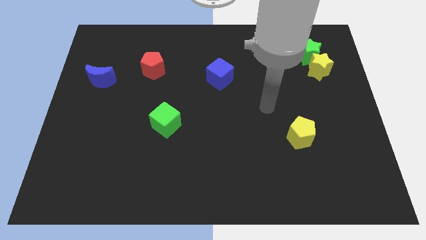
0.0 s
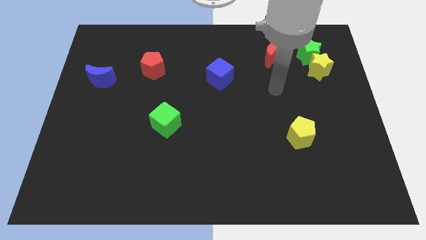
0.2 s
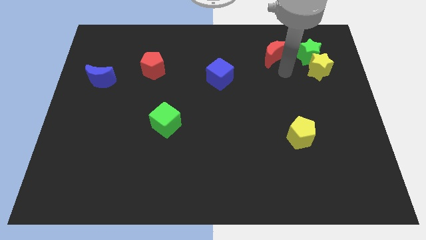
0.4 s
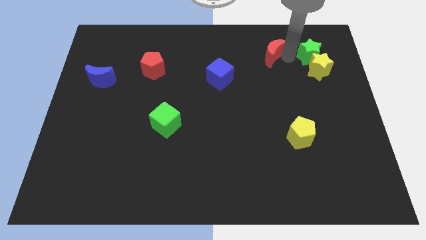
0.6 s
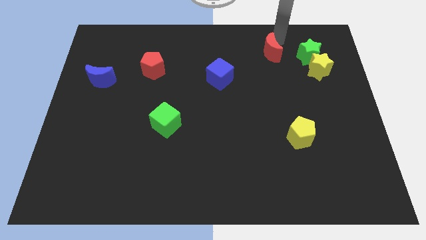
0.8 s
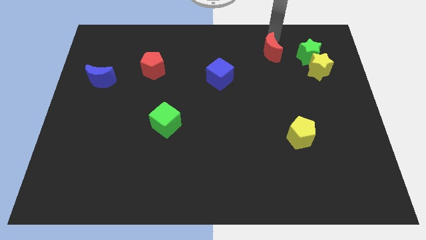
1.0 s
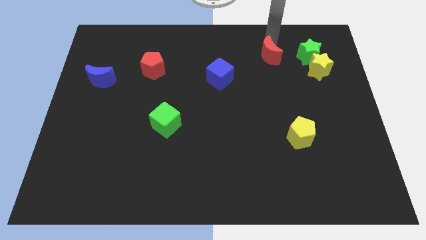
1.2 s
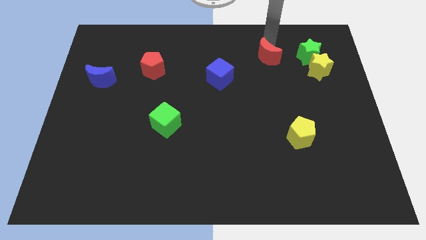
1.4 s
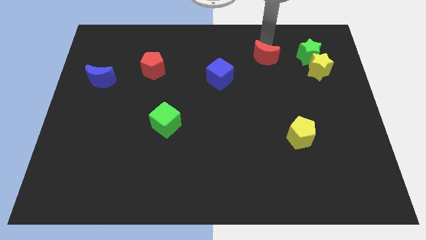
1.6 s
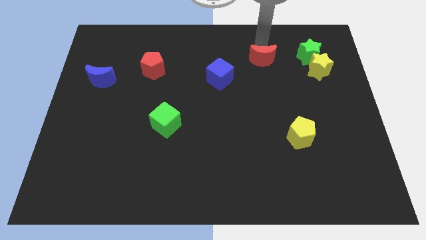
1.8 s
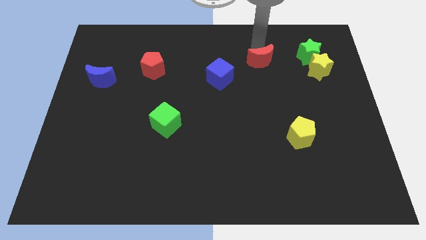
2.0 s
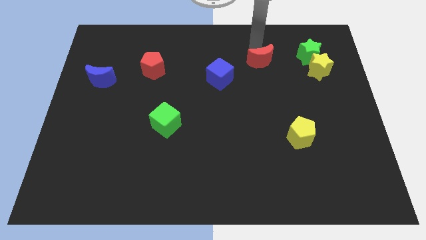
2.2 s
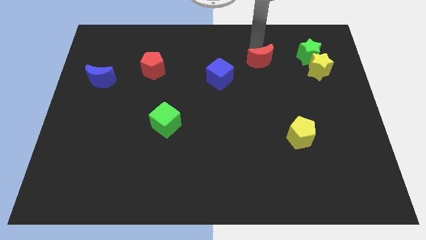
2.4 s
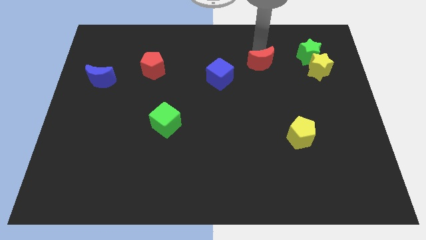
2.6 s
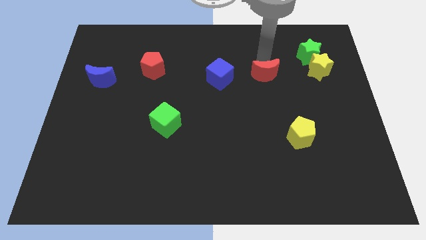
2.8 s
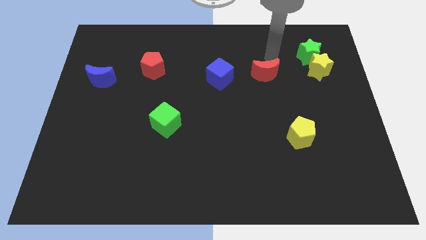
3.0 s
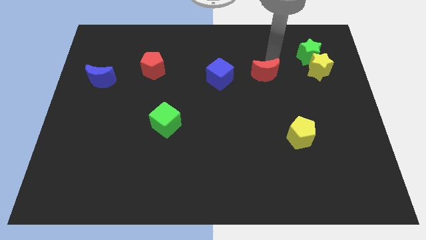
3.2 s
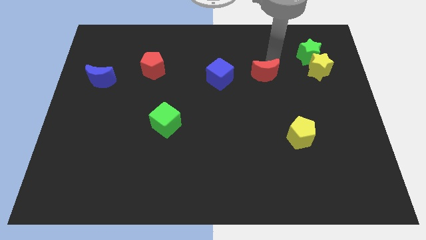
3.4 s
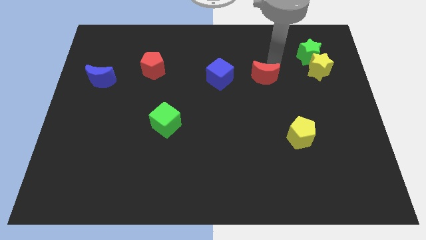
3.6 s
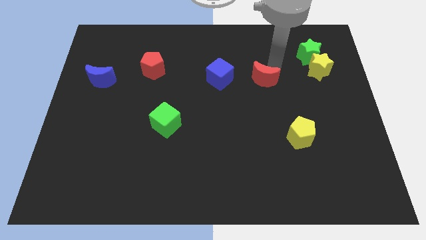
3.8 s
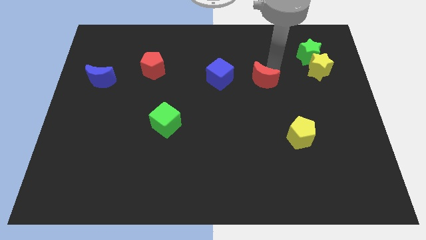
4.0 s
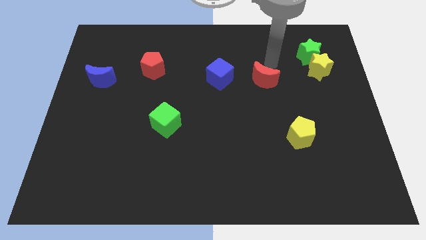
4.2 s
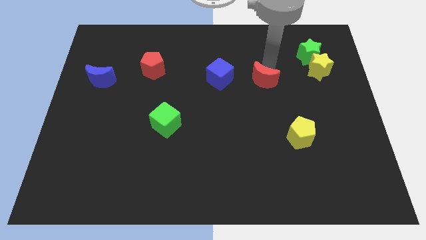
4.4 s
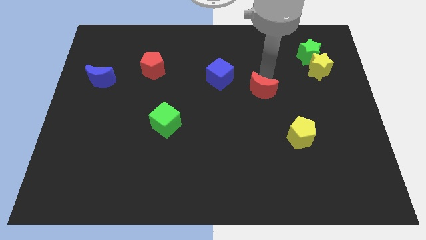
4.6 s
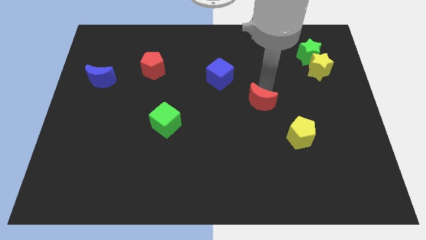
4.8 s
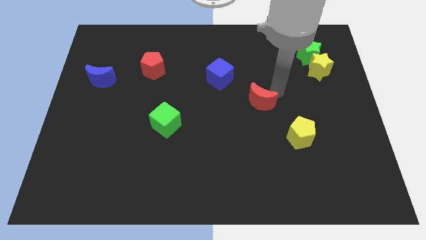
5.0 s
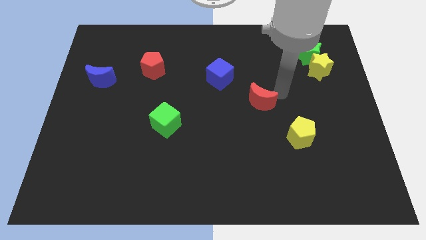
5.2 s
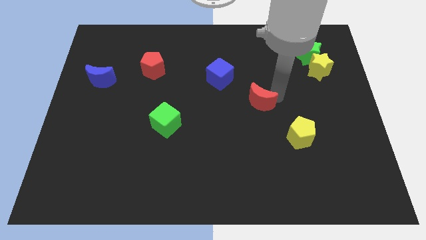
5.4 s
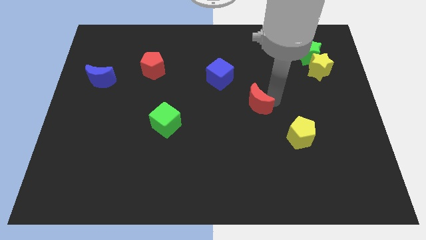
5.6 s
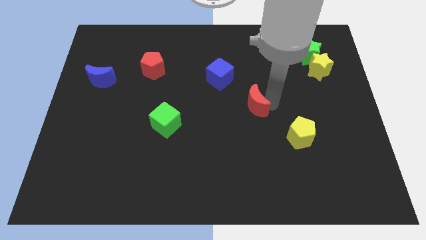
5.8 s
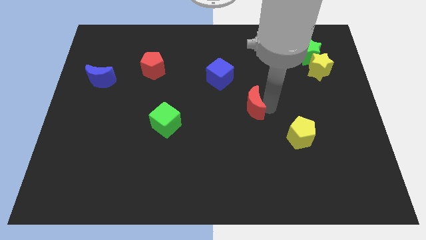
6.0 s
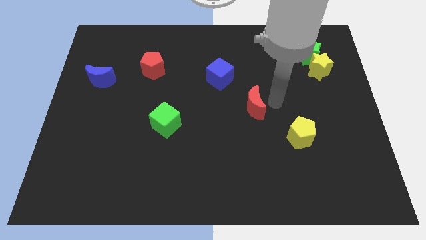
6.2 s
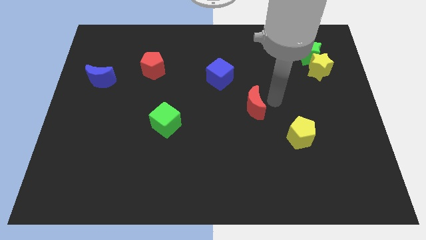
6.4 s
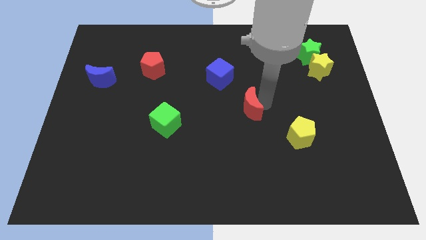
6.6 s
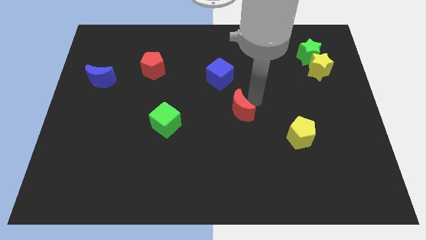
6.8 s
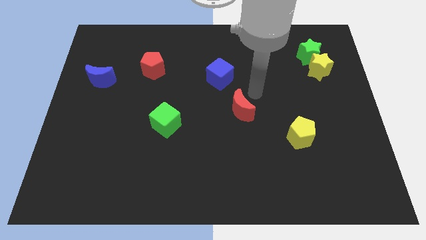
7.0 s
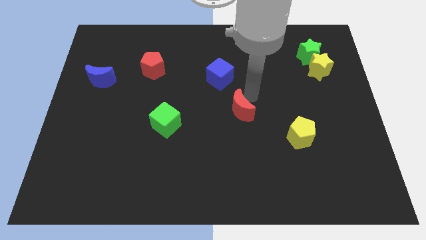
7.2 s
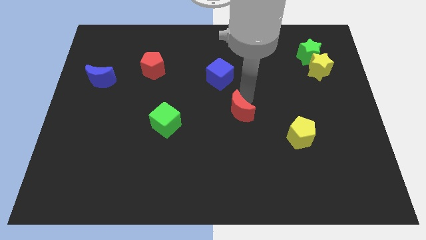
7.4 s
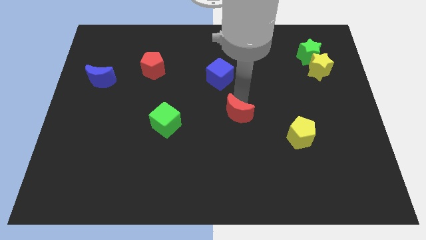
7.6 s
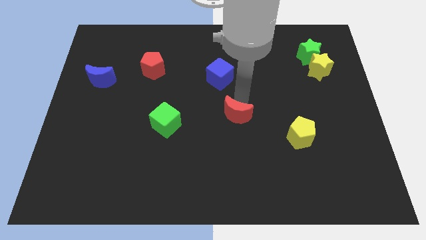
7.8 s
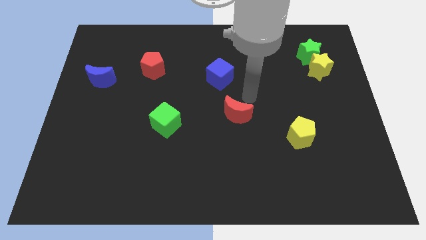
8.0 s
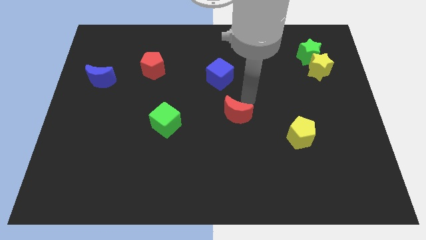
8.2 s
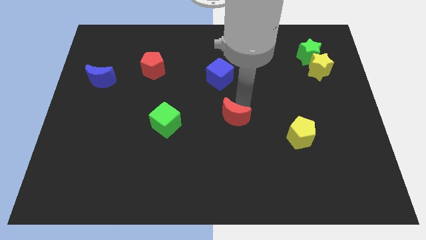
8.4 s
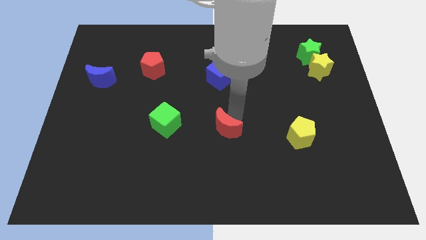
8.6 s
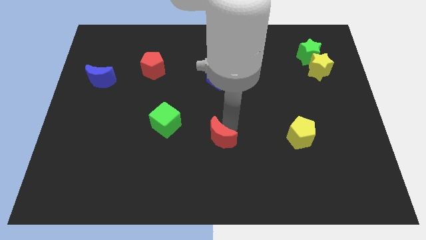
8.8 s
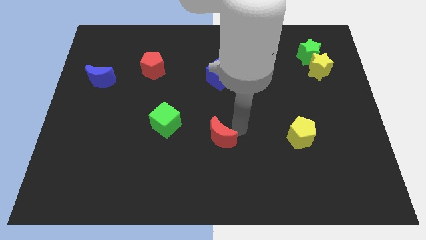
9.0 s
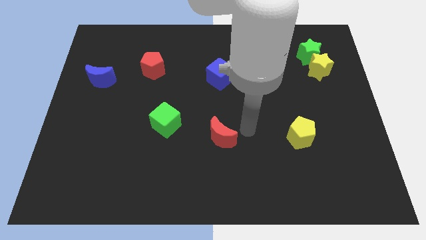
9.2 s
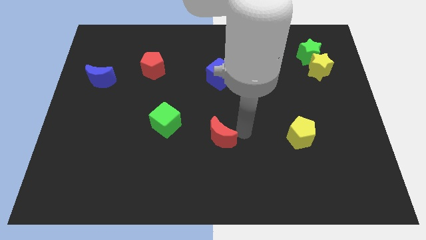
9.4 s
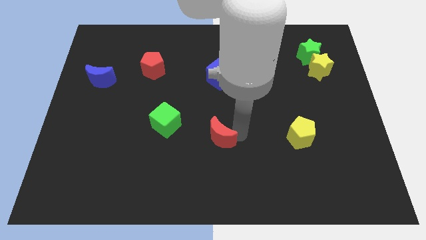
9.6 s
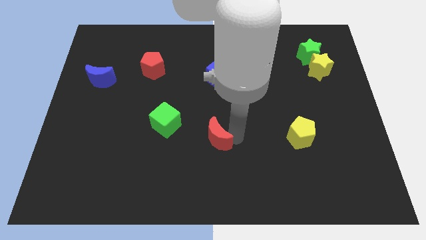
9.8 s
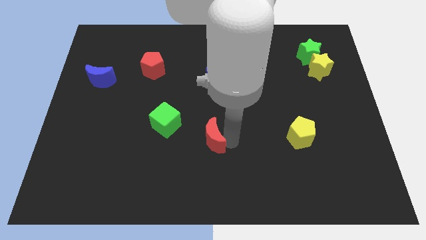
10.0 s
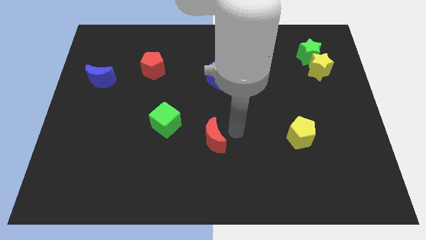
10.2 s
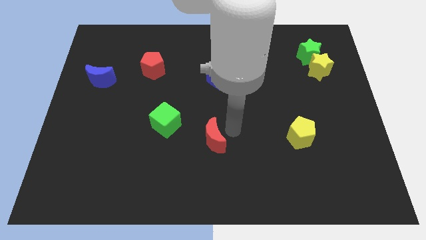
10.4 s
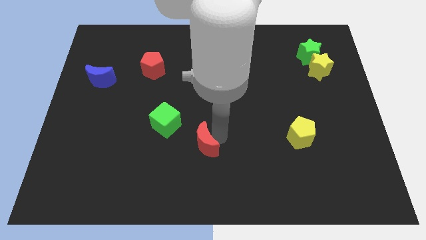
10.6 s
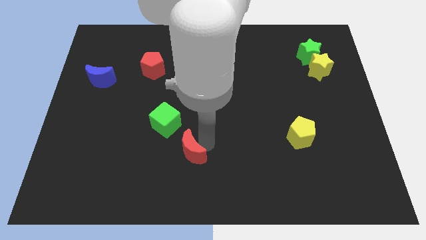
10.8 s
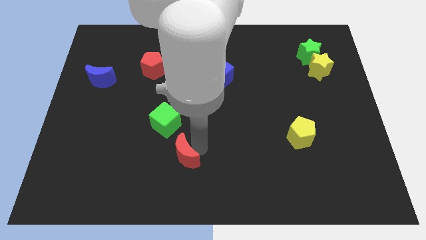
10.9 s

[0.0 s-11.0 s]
move the red moon to the bottom of the green cube

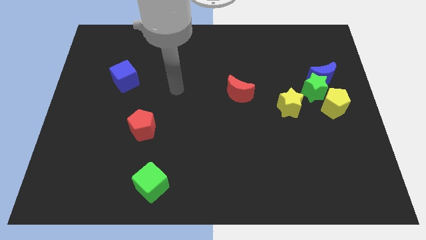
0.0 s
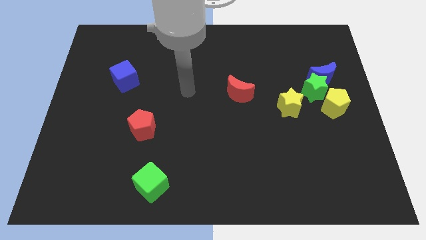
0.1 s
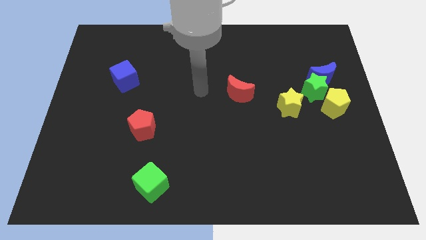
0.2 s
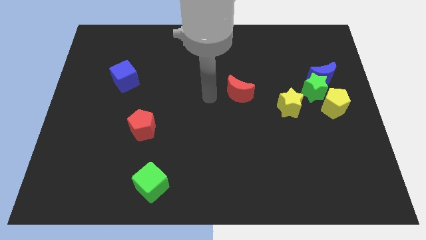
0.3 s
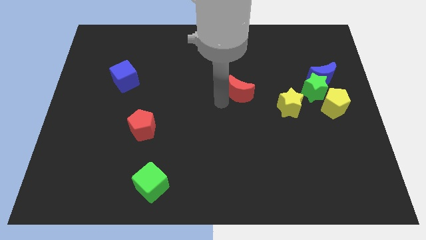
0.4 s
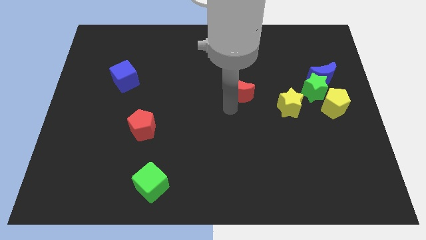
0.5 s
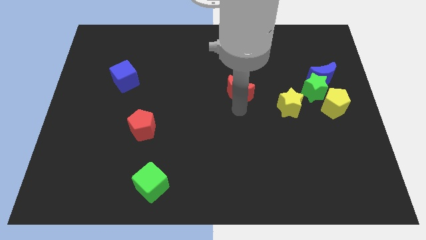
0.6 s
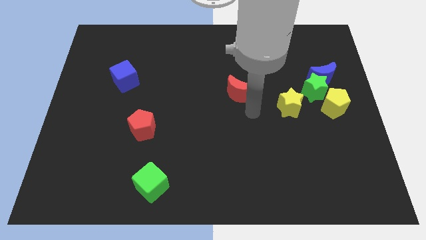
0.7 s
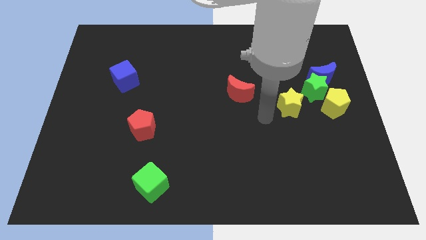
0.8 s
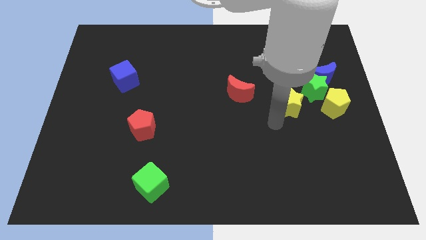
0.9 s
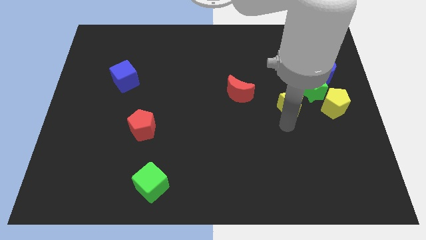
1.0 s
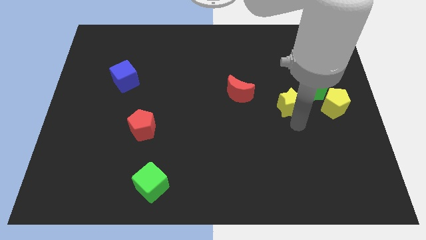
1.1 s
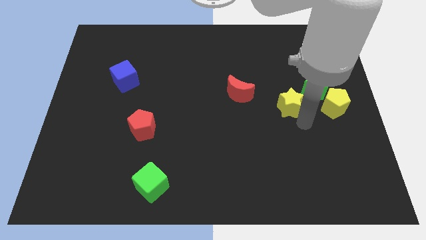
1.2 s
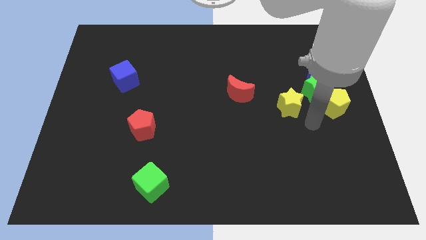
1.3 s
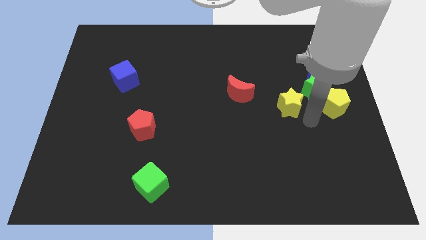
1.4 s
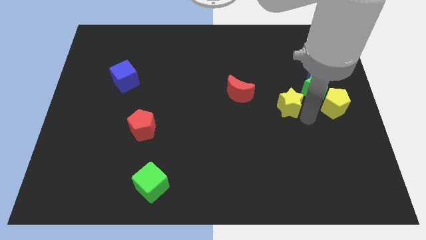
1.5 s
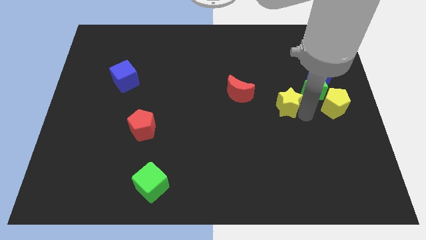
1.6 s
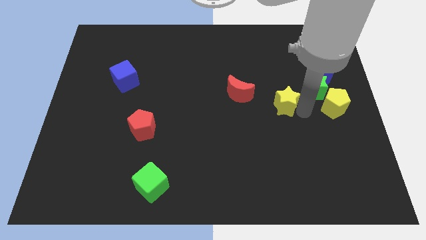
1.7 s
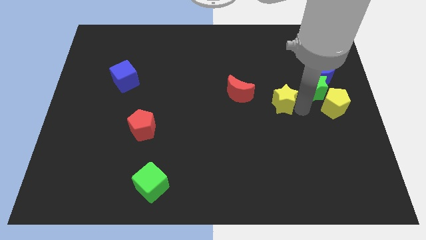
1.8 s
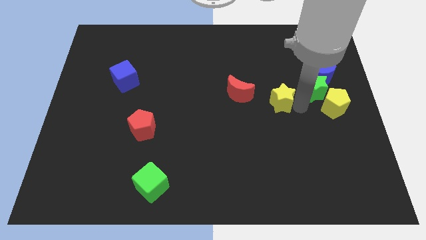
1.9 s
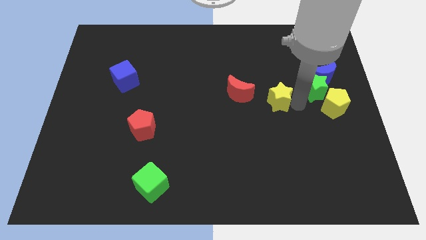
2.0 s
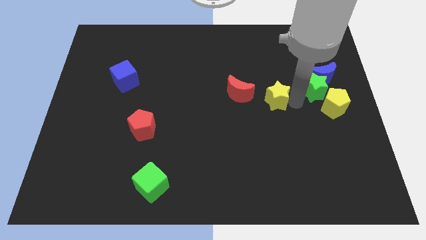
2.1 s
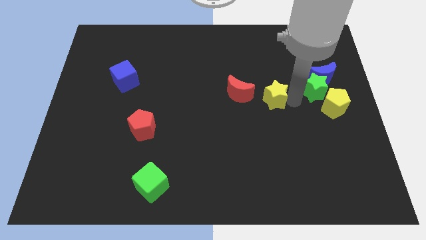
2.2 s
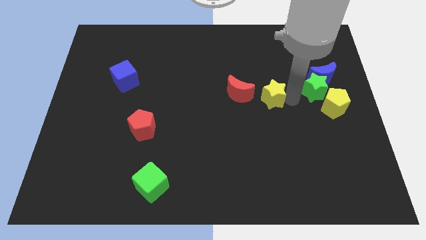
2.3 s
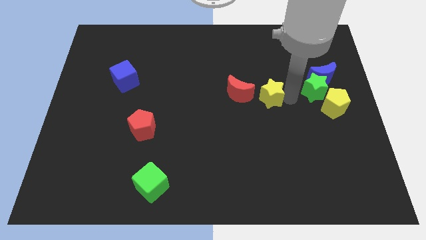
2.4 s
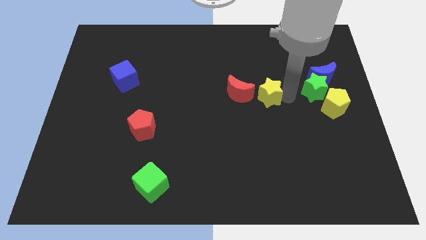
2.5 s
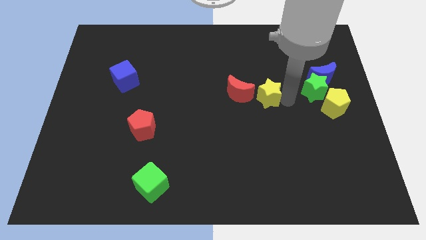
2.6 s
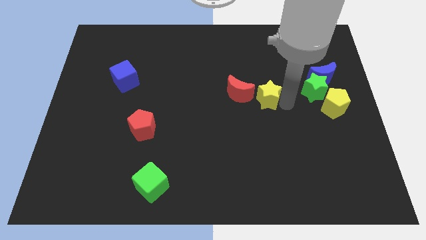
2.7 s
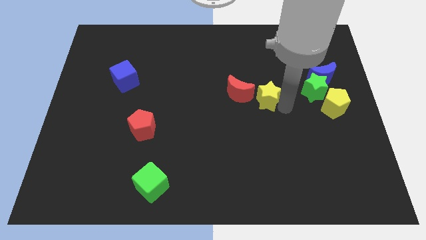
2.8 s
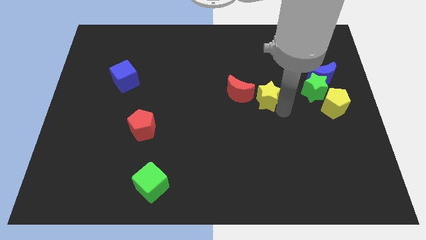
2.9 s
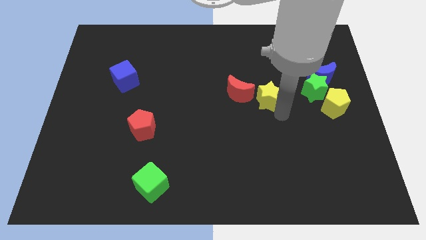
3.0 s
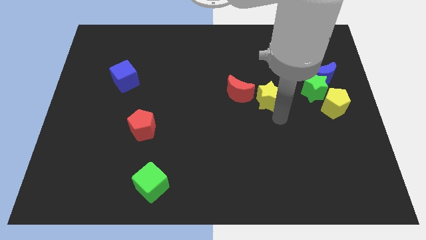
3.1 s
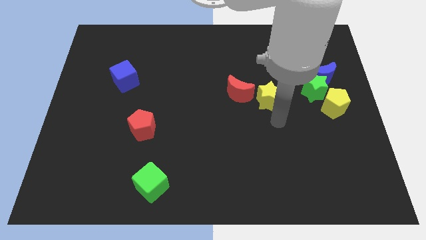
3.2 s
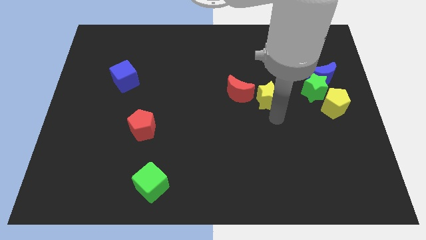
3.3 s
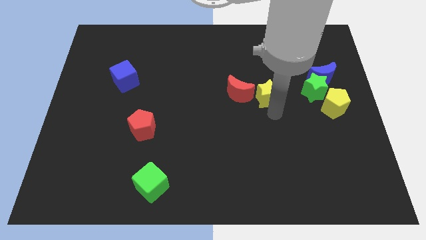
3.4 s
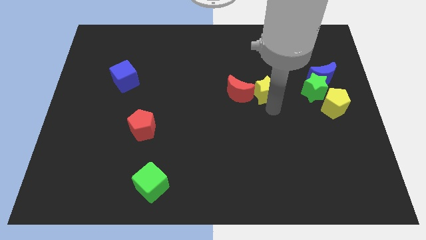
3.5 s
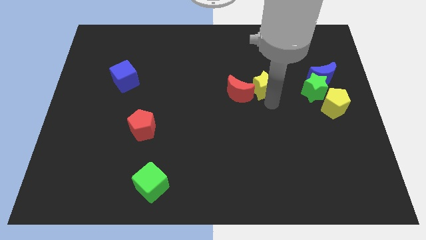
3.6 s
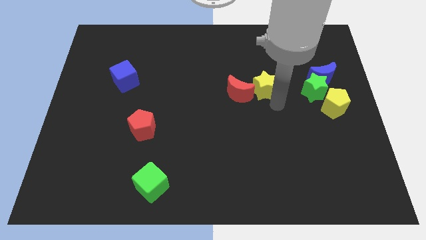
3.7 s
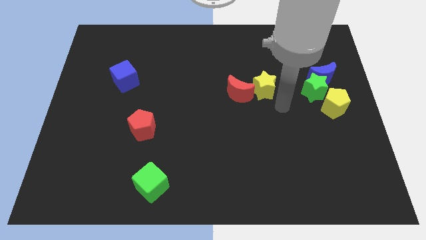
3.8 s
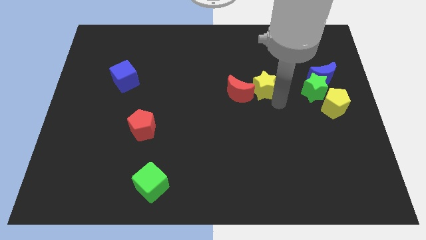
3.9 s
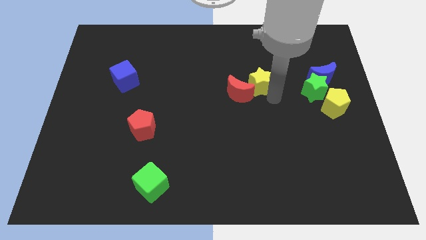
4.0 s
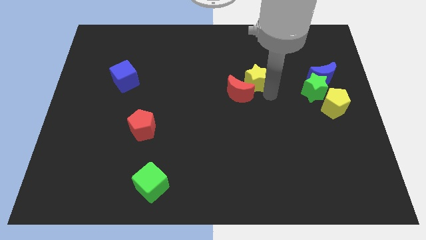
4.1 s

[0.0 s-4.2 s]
move the yellow star above the red moon
